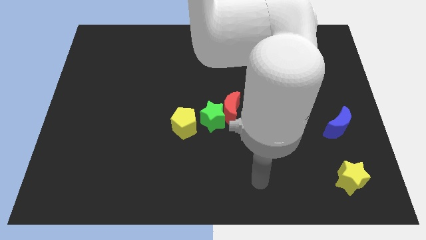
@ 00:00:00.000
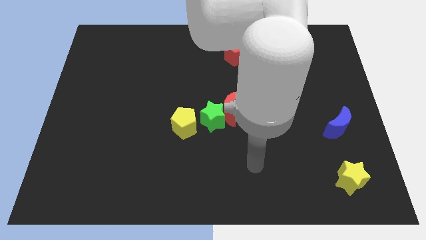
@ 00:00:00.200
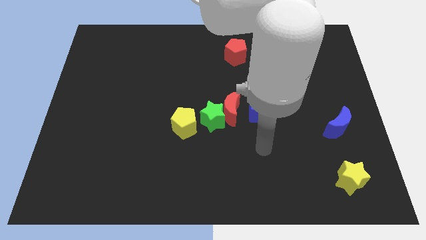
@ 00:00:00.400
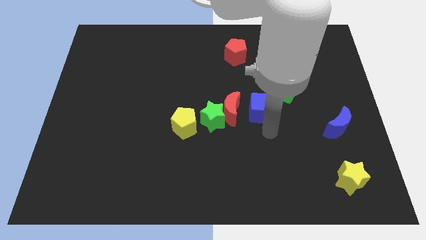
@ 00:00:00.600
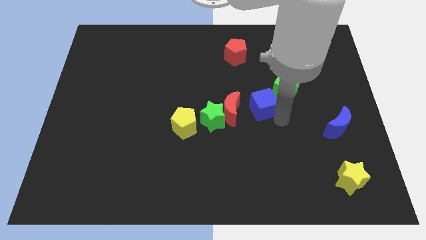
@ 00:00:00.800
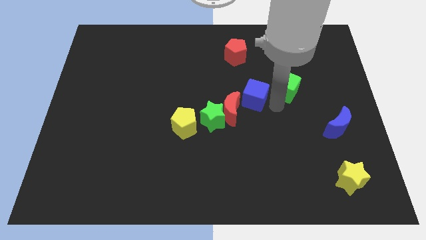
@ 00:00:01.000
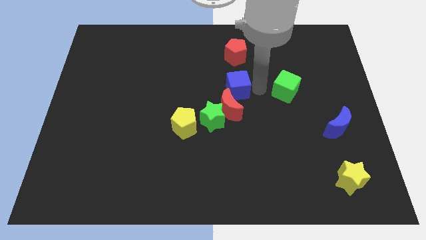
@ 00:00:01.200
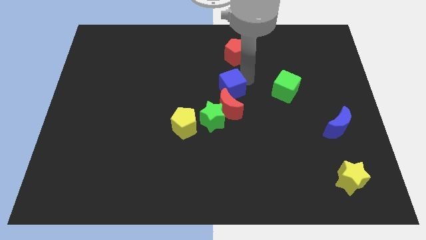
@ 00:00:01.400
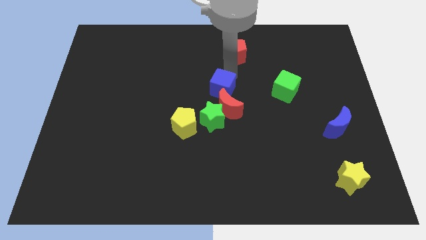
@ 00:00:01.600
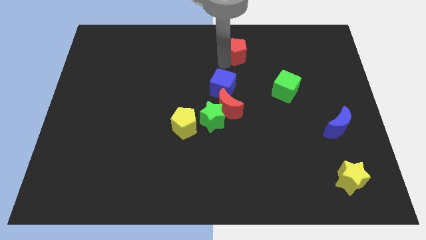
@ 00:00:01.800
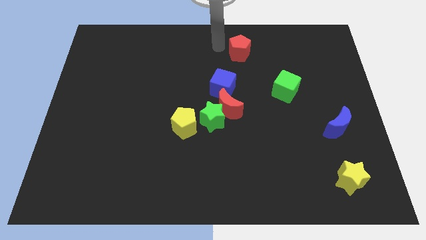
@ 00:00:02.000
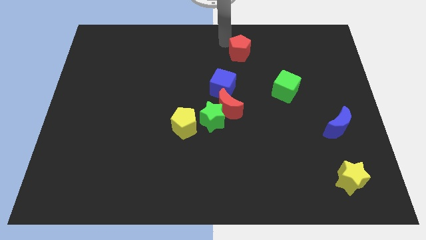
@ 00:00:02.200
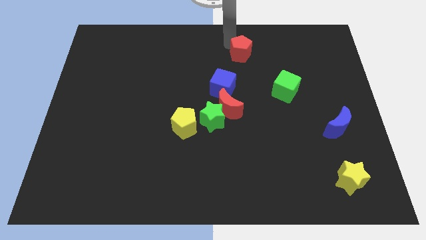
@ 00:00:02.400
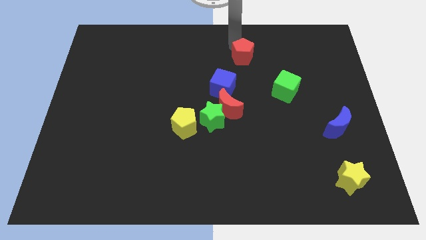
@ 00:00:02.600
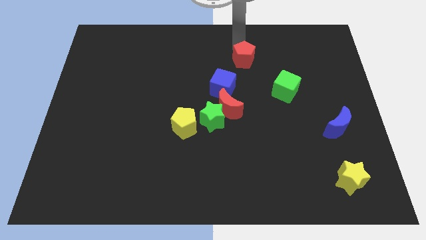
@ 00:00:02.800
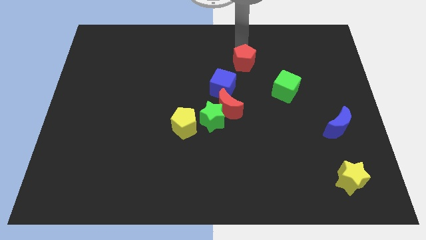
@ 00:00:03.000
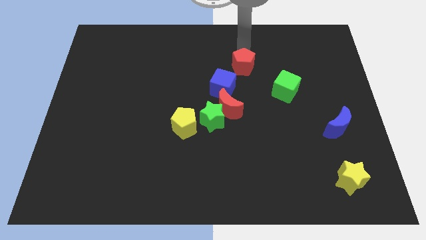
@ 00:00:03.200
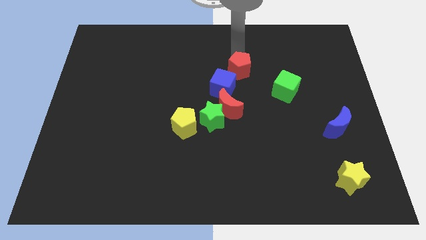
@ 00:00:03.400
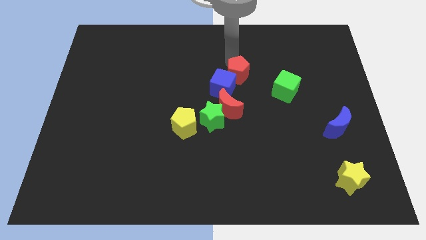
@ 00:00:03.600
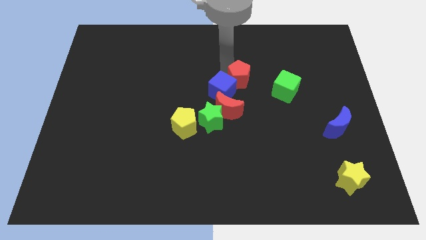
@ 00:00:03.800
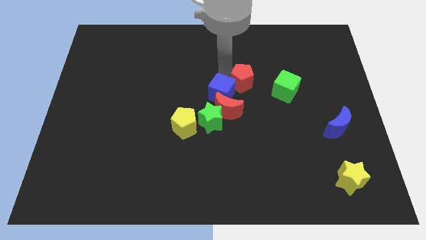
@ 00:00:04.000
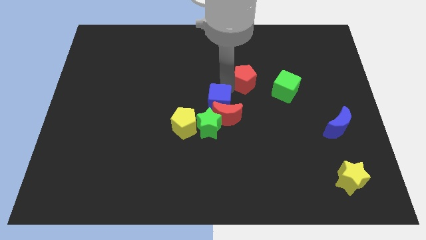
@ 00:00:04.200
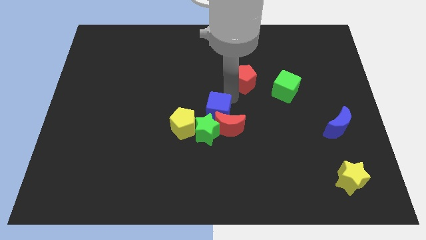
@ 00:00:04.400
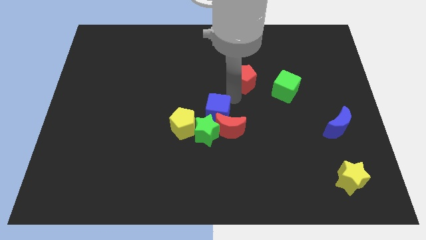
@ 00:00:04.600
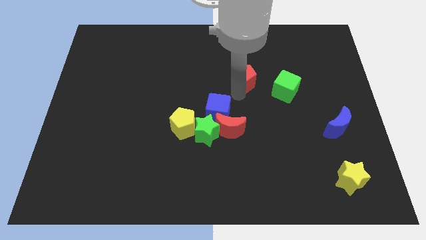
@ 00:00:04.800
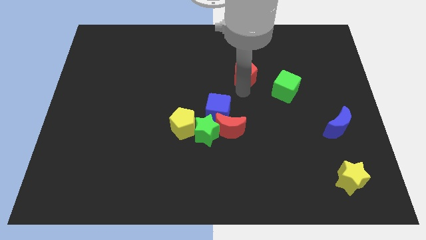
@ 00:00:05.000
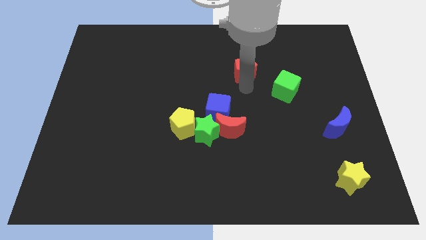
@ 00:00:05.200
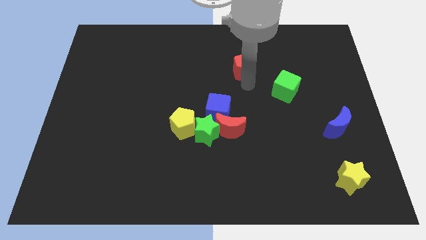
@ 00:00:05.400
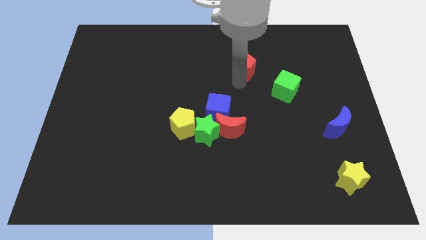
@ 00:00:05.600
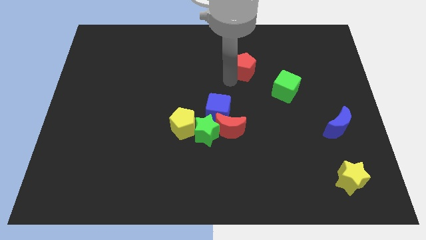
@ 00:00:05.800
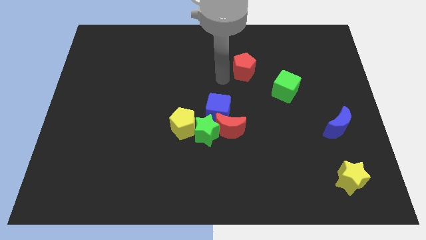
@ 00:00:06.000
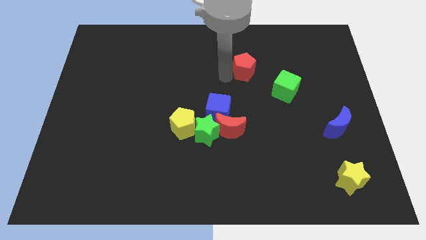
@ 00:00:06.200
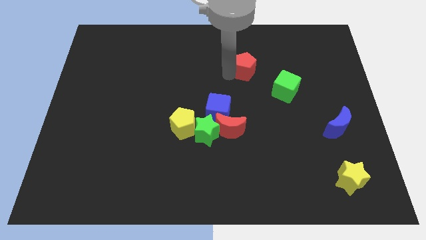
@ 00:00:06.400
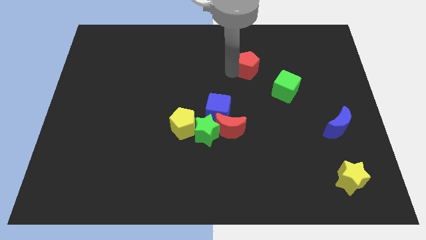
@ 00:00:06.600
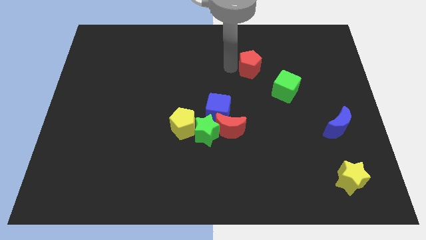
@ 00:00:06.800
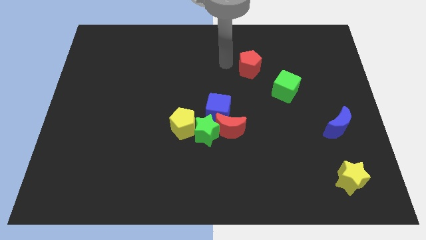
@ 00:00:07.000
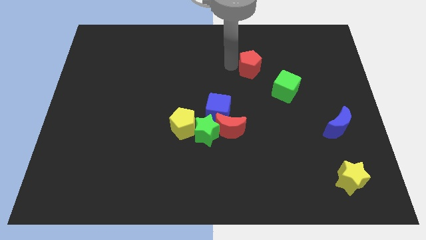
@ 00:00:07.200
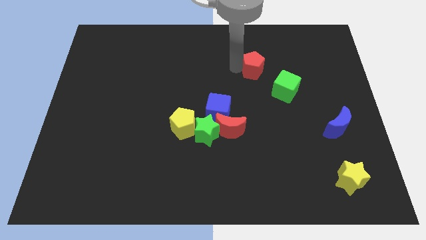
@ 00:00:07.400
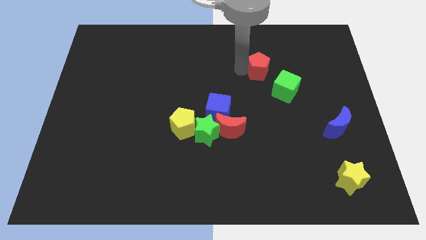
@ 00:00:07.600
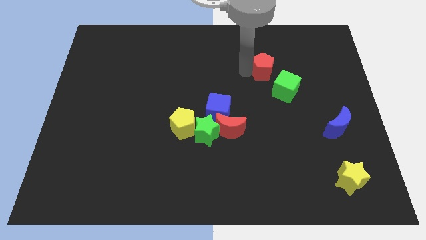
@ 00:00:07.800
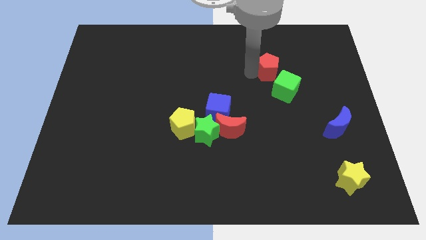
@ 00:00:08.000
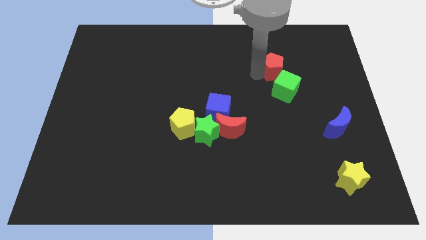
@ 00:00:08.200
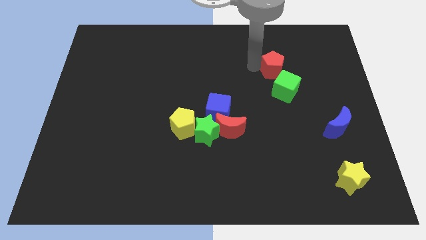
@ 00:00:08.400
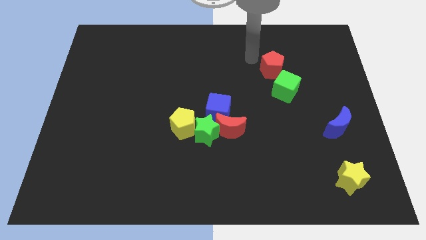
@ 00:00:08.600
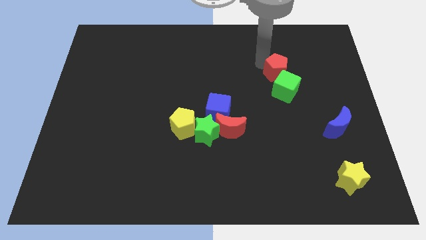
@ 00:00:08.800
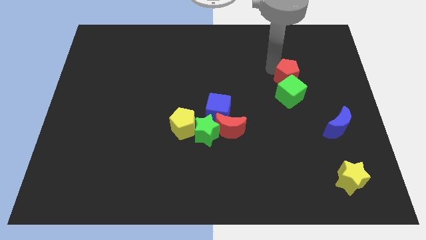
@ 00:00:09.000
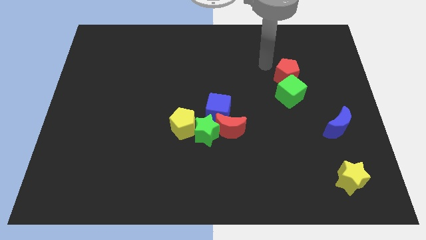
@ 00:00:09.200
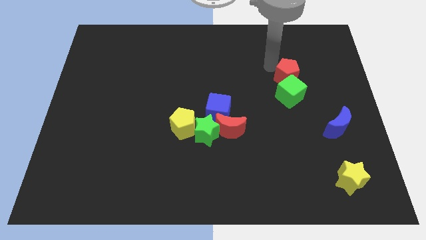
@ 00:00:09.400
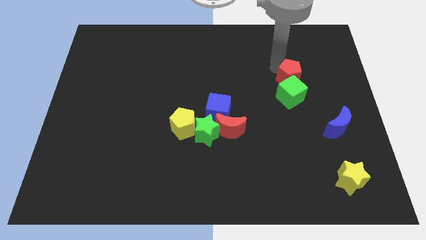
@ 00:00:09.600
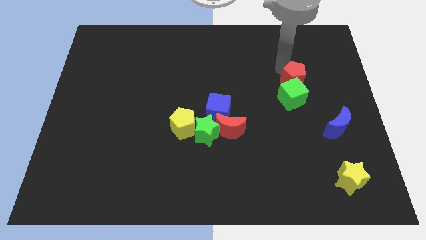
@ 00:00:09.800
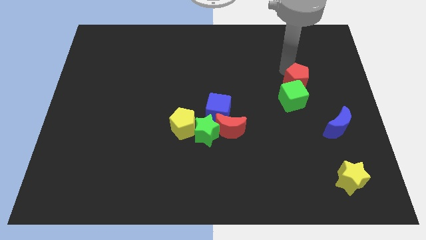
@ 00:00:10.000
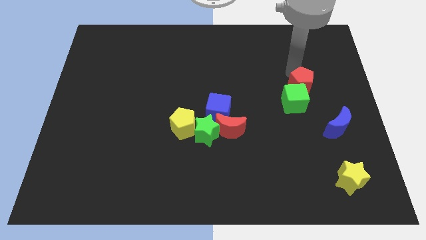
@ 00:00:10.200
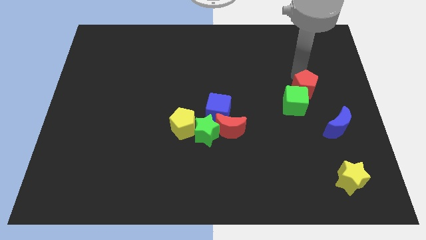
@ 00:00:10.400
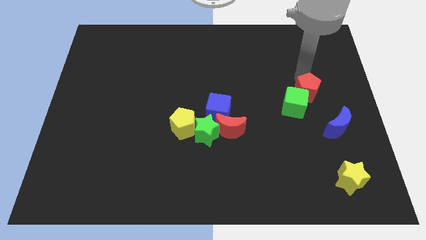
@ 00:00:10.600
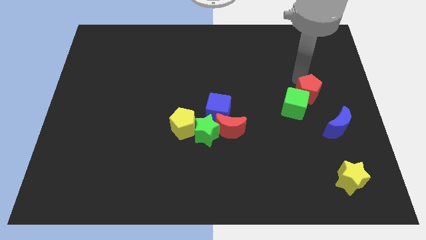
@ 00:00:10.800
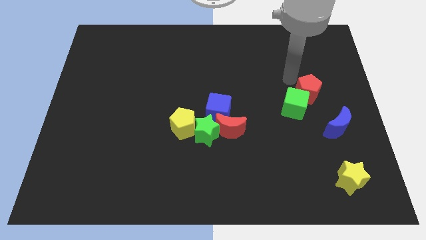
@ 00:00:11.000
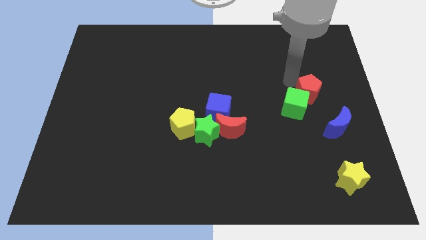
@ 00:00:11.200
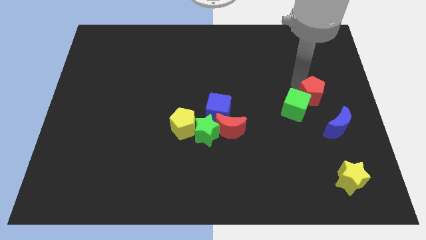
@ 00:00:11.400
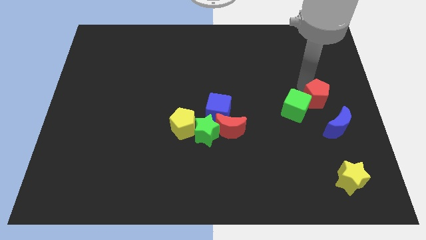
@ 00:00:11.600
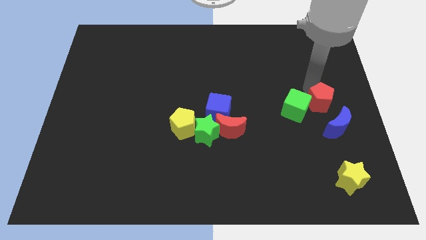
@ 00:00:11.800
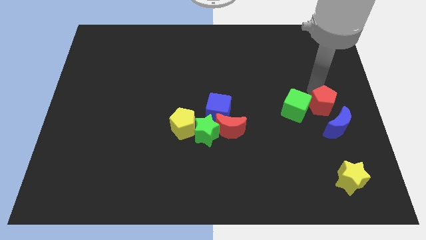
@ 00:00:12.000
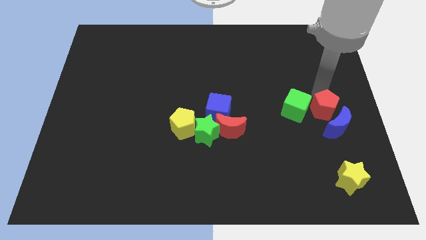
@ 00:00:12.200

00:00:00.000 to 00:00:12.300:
move the red pentagon towards the blue moon
